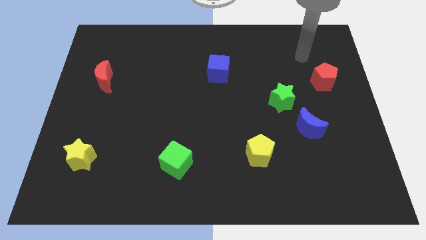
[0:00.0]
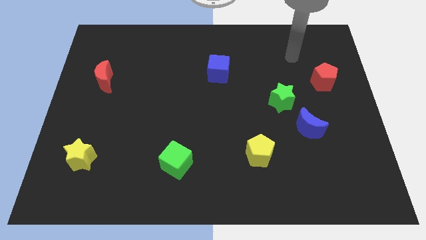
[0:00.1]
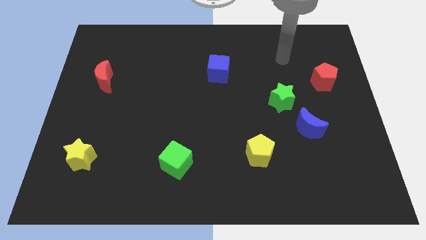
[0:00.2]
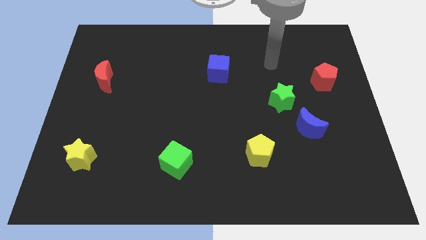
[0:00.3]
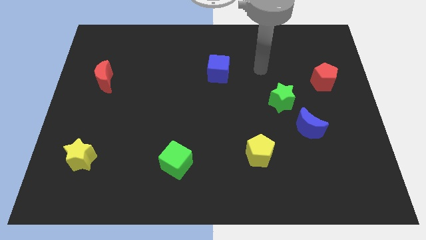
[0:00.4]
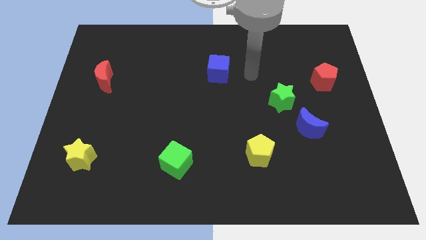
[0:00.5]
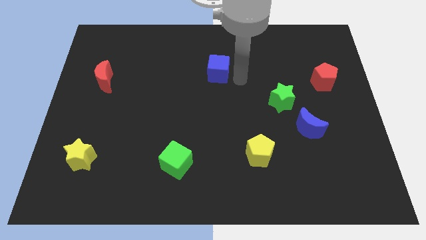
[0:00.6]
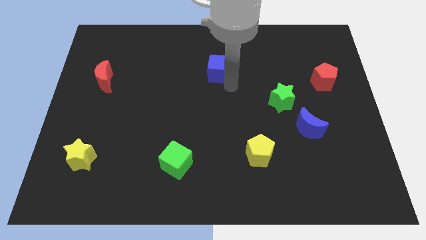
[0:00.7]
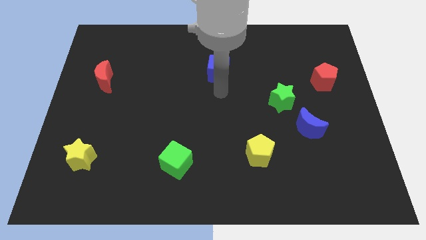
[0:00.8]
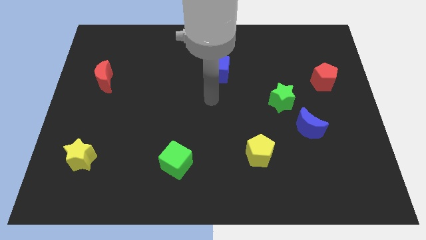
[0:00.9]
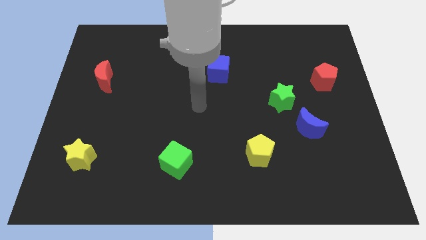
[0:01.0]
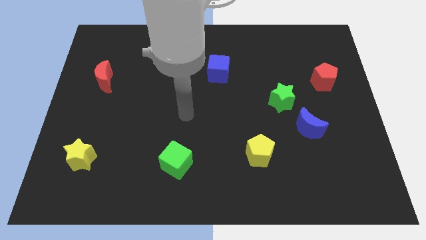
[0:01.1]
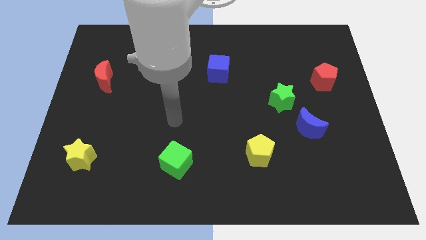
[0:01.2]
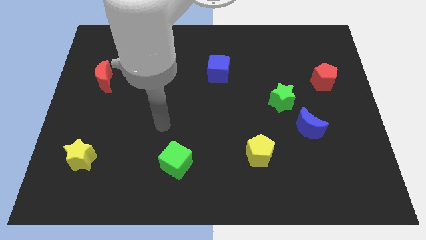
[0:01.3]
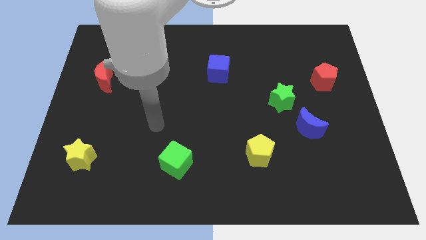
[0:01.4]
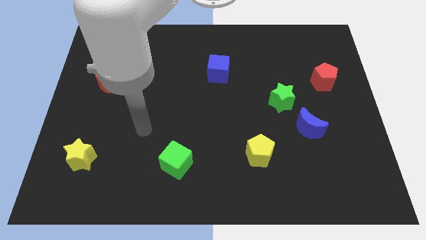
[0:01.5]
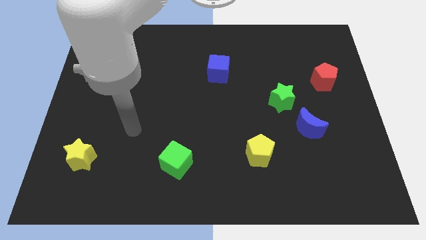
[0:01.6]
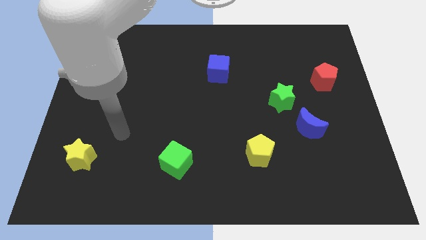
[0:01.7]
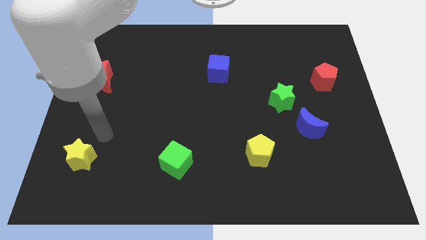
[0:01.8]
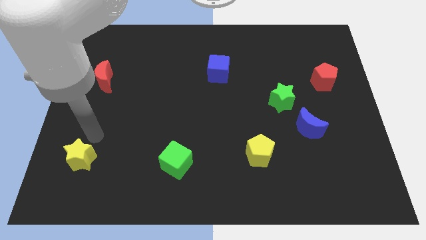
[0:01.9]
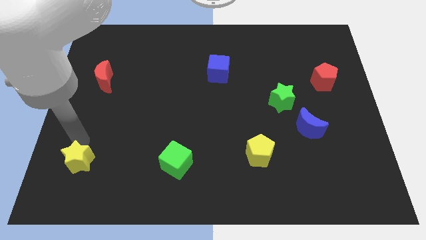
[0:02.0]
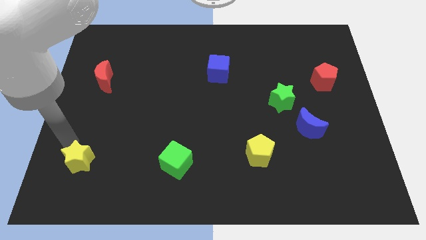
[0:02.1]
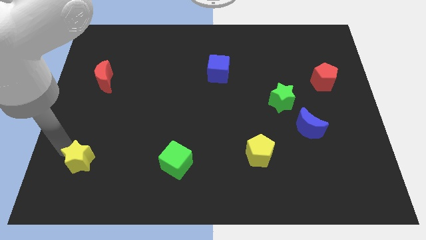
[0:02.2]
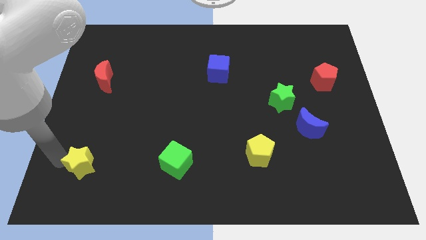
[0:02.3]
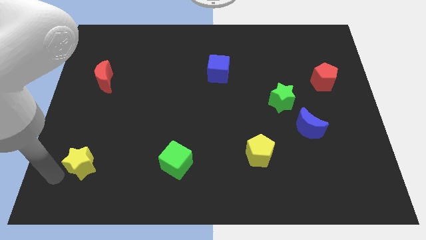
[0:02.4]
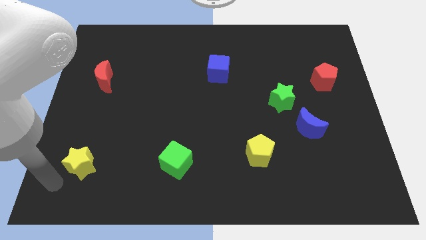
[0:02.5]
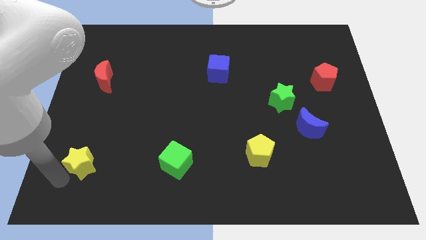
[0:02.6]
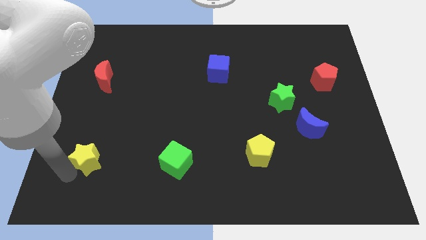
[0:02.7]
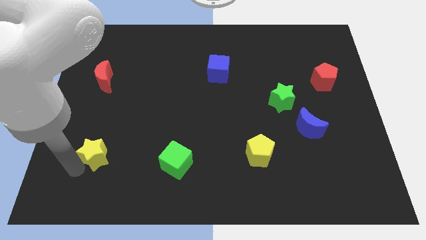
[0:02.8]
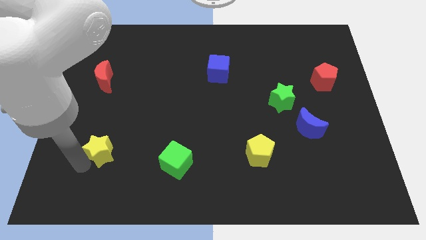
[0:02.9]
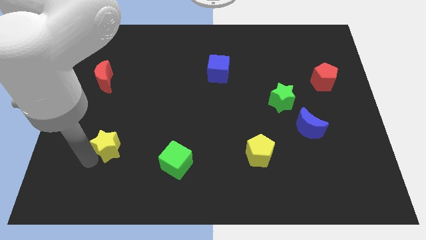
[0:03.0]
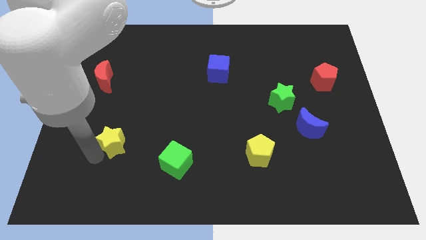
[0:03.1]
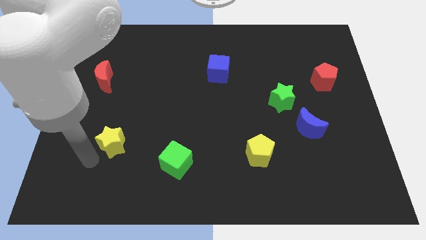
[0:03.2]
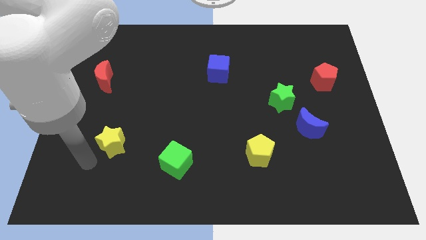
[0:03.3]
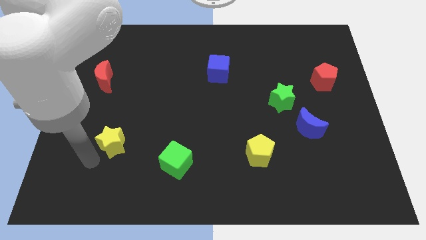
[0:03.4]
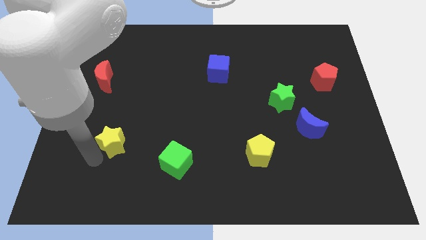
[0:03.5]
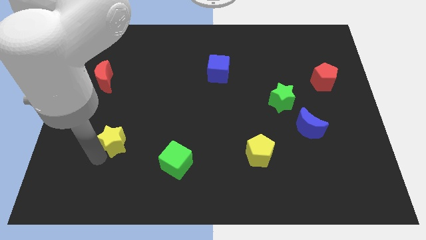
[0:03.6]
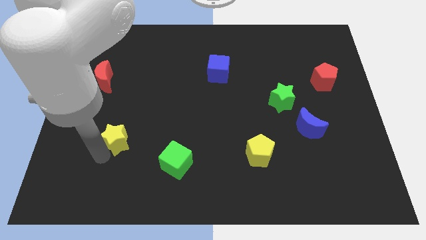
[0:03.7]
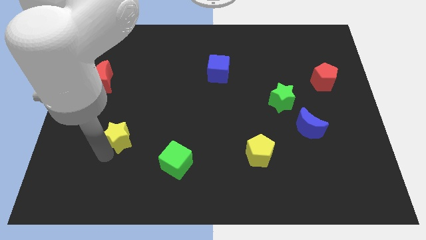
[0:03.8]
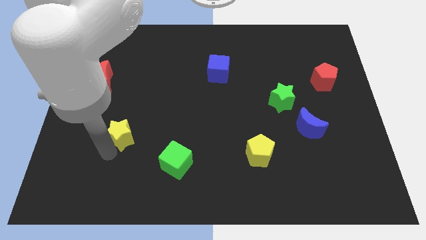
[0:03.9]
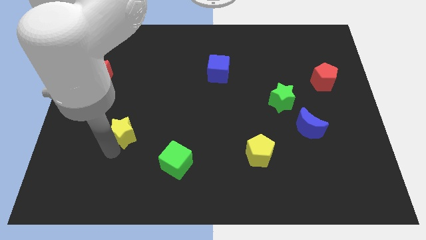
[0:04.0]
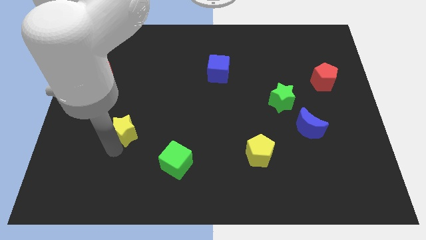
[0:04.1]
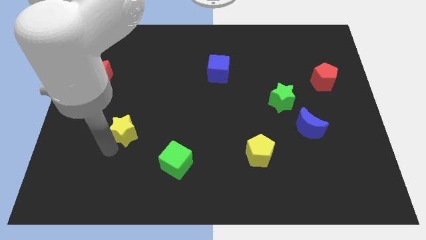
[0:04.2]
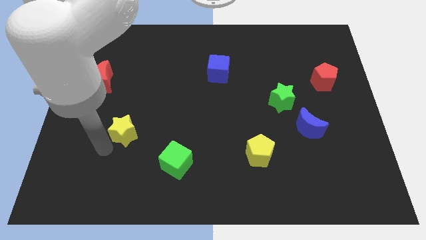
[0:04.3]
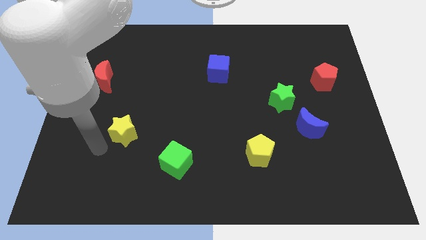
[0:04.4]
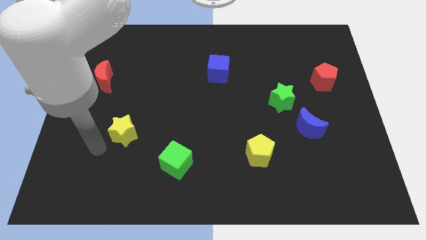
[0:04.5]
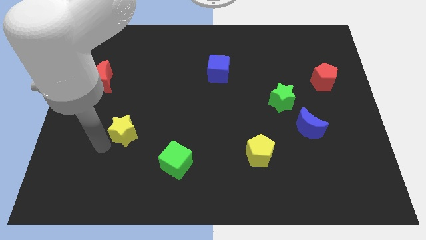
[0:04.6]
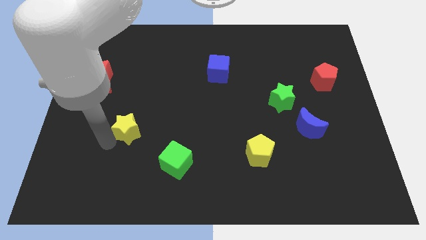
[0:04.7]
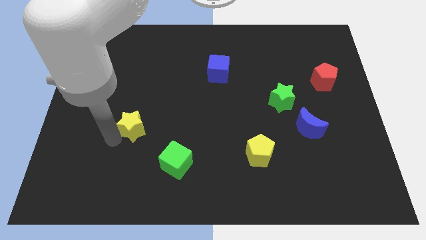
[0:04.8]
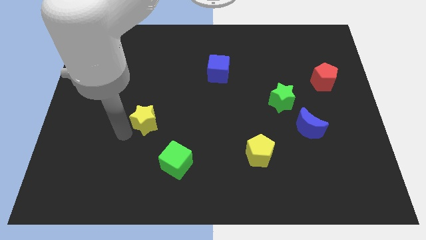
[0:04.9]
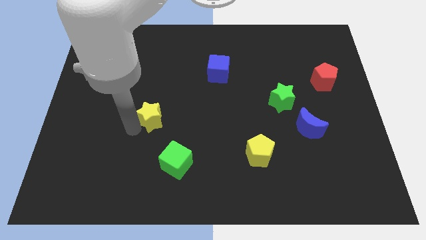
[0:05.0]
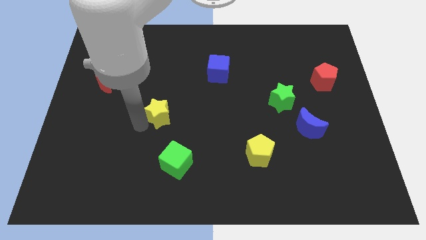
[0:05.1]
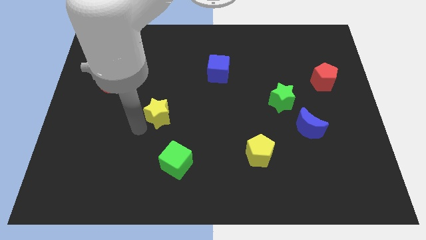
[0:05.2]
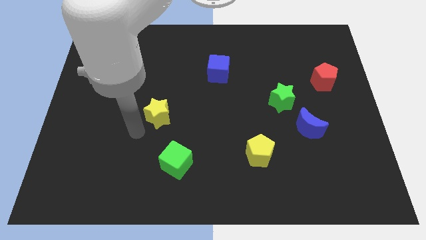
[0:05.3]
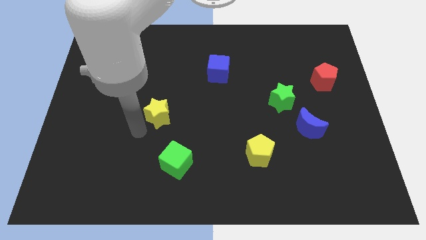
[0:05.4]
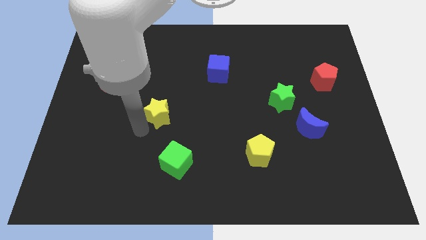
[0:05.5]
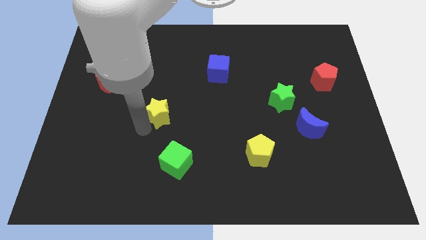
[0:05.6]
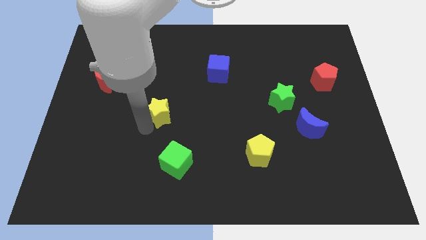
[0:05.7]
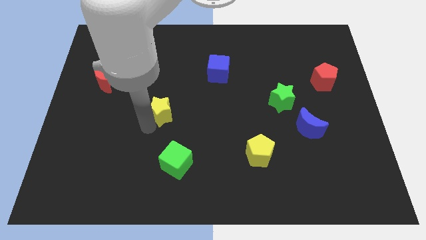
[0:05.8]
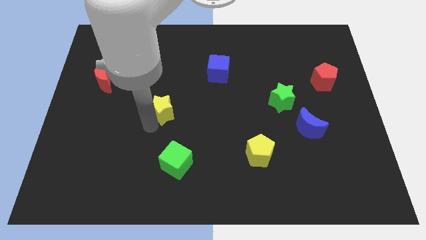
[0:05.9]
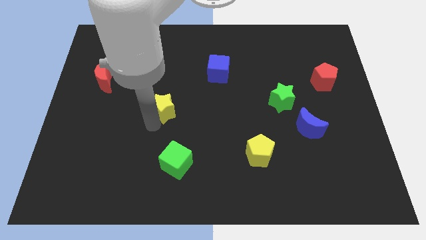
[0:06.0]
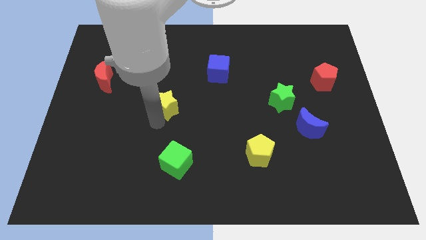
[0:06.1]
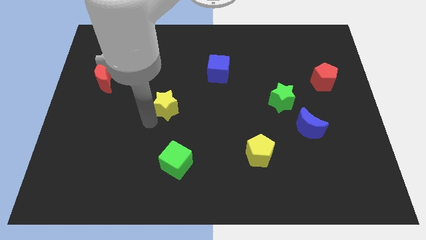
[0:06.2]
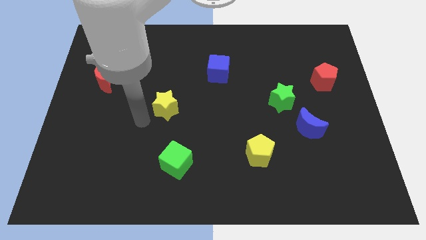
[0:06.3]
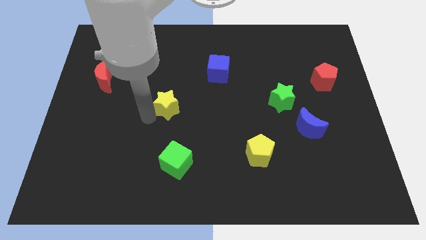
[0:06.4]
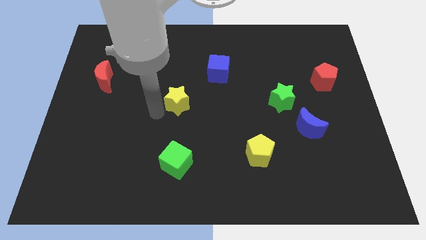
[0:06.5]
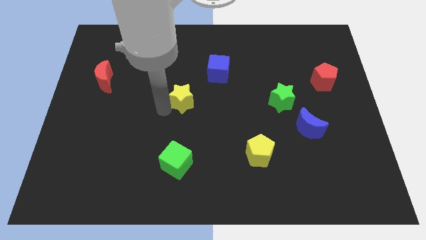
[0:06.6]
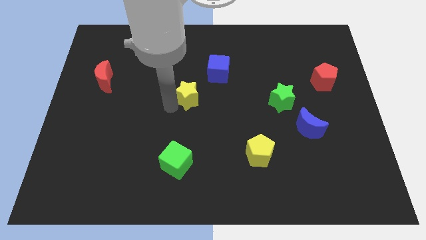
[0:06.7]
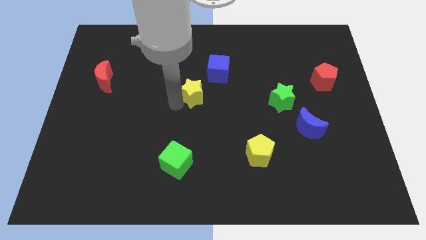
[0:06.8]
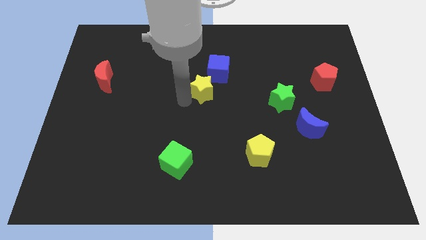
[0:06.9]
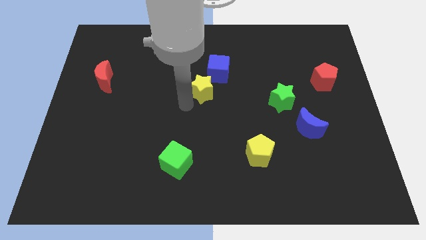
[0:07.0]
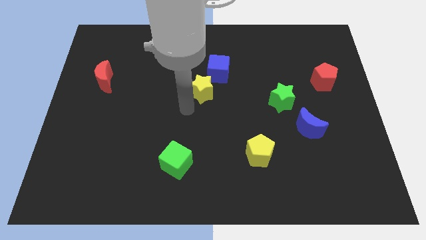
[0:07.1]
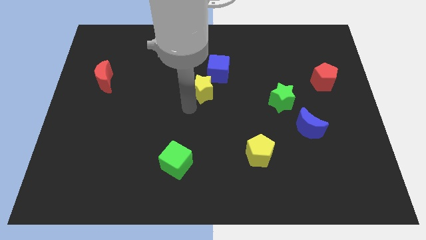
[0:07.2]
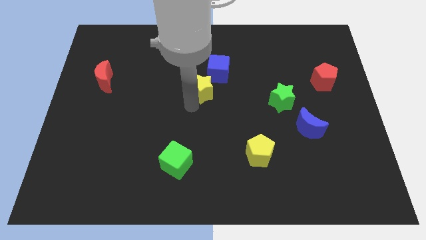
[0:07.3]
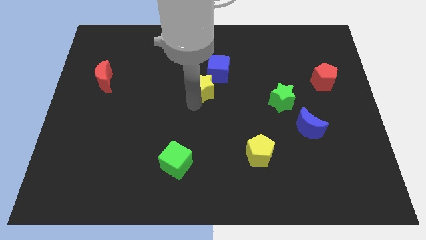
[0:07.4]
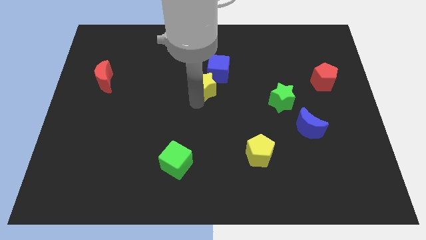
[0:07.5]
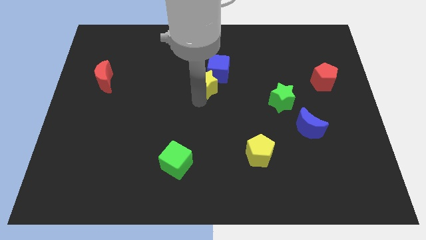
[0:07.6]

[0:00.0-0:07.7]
put the yellow star close to the blue cube
